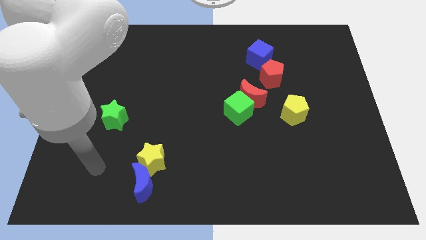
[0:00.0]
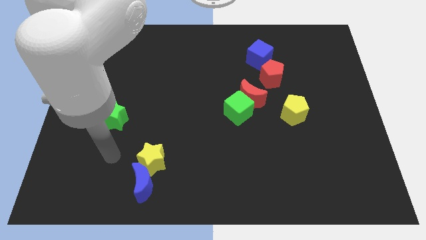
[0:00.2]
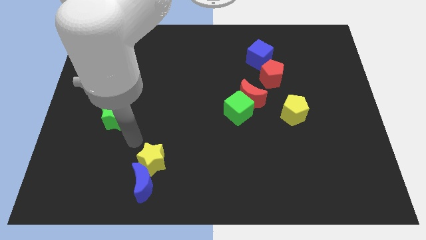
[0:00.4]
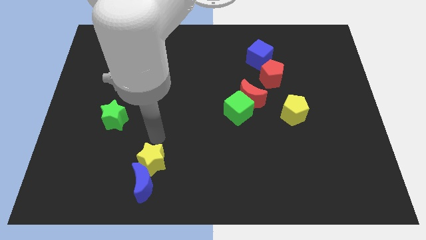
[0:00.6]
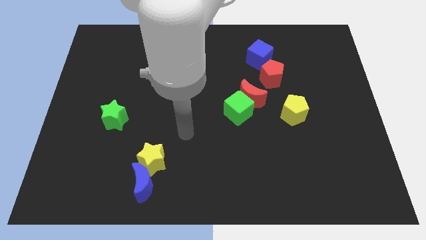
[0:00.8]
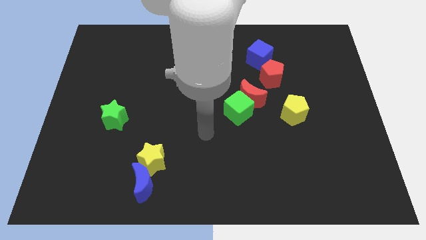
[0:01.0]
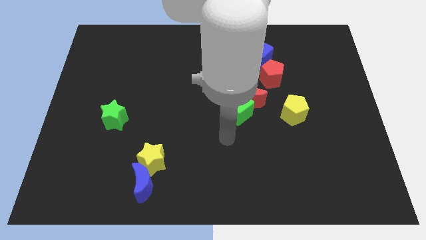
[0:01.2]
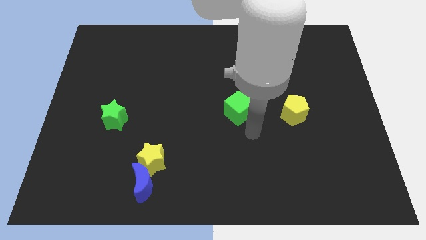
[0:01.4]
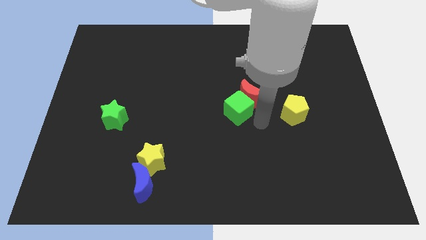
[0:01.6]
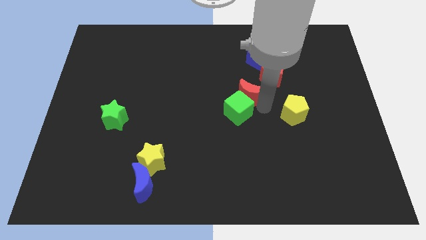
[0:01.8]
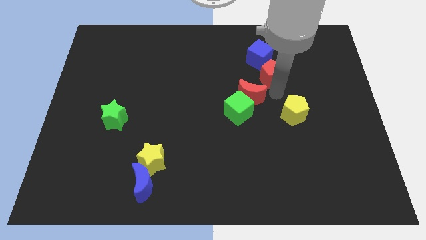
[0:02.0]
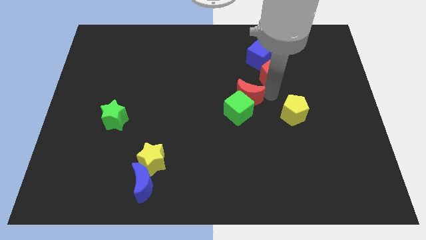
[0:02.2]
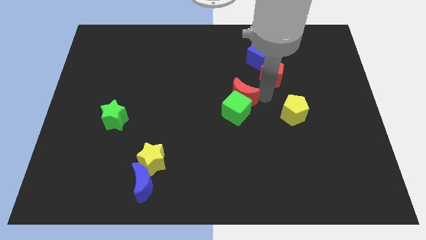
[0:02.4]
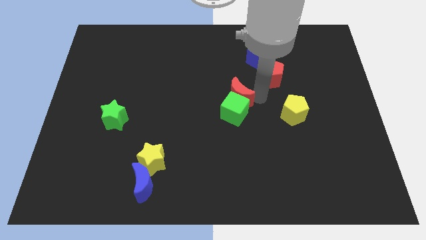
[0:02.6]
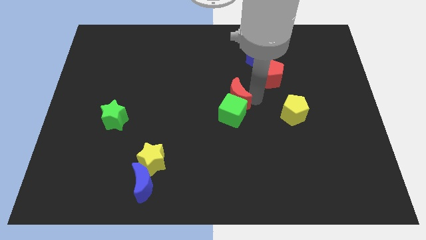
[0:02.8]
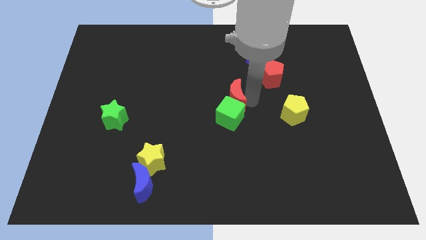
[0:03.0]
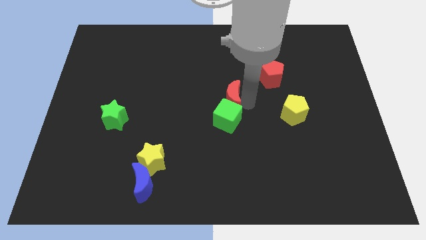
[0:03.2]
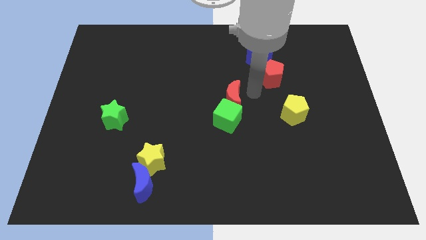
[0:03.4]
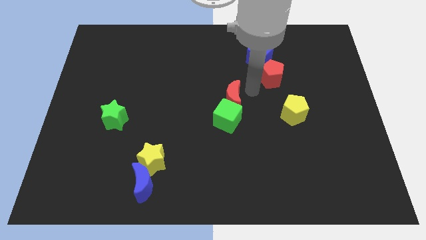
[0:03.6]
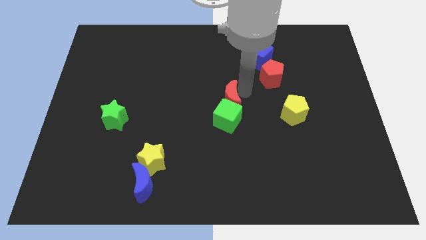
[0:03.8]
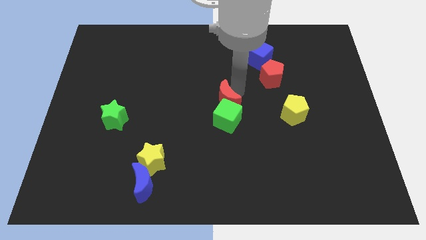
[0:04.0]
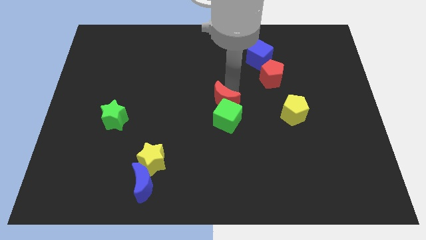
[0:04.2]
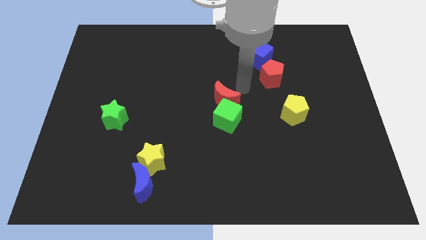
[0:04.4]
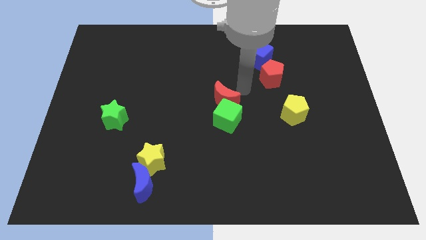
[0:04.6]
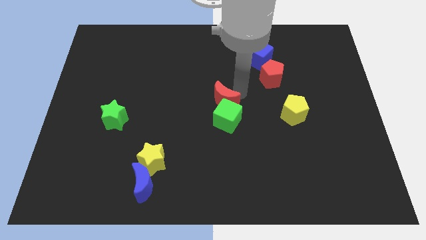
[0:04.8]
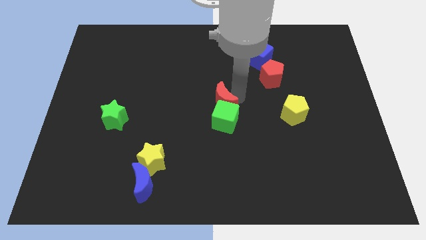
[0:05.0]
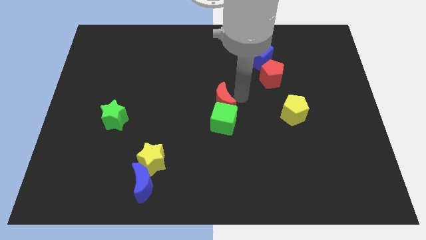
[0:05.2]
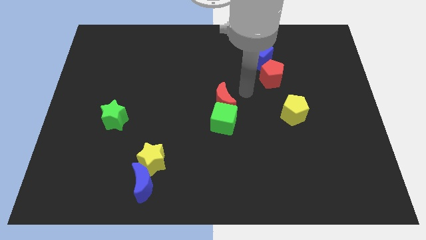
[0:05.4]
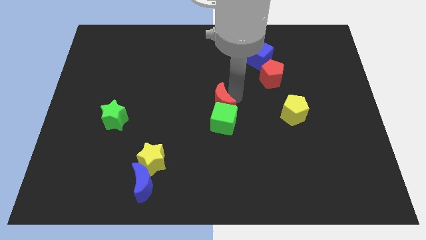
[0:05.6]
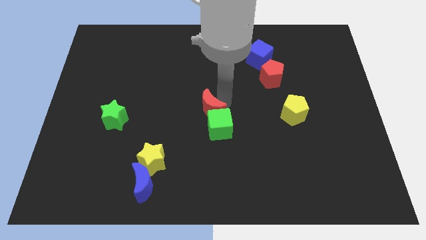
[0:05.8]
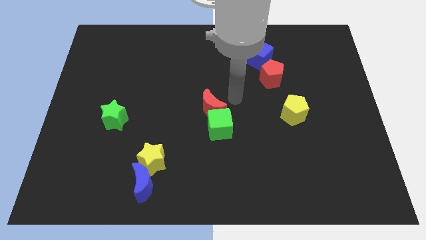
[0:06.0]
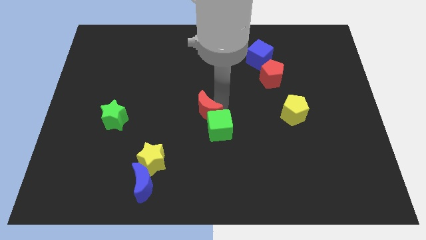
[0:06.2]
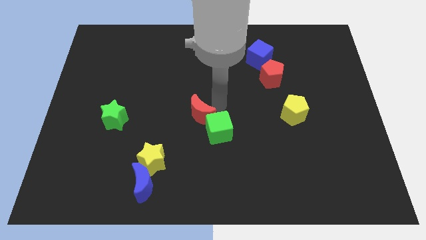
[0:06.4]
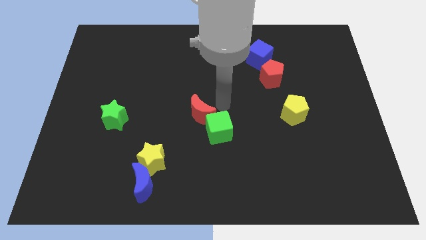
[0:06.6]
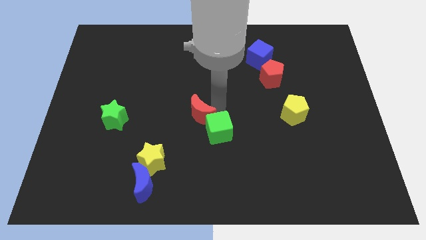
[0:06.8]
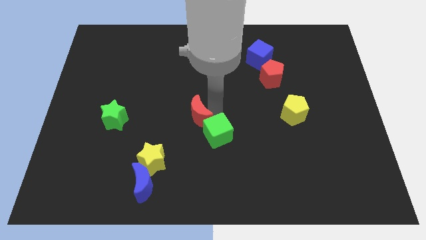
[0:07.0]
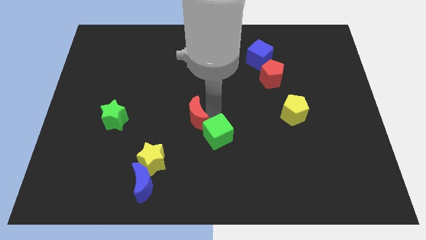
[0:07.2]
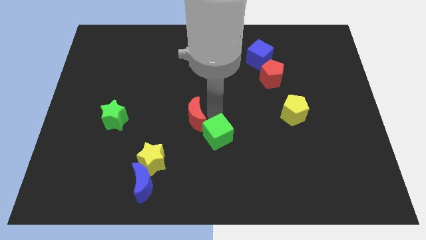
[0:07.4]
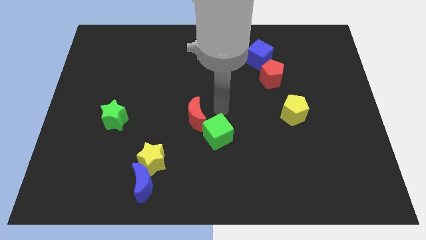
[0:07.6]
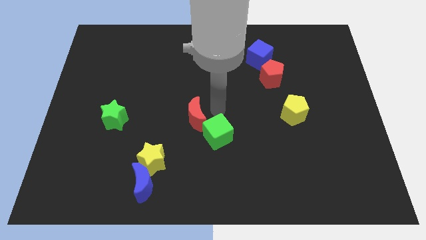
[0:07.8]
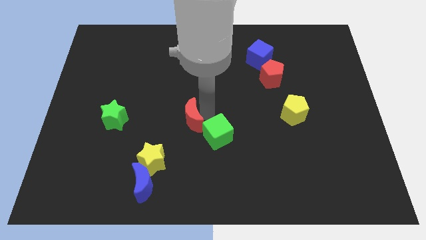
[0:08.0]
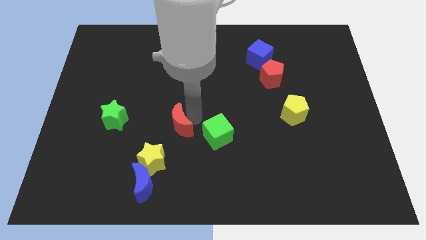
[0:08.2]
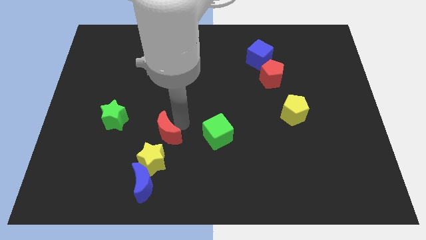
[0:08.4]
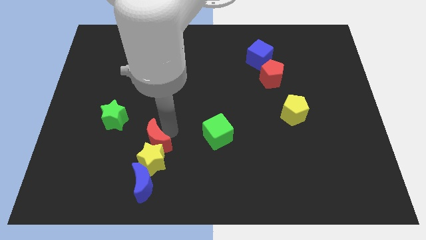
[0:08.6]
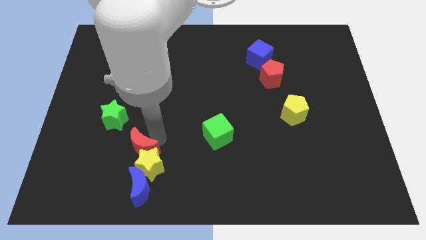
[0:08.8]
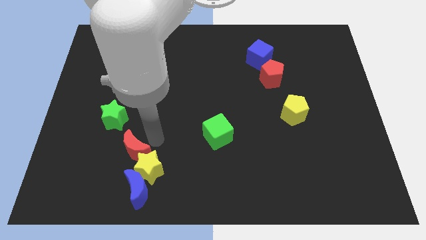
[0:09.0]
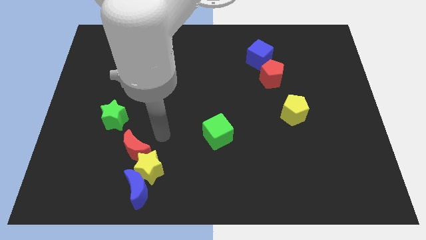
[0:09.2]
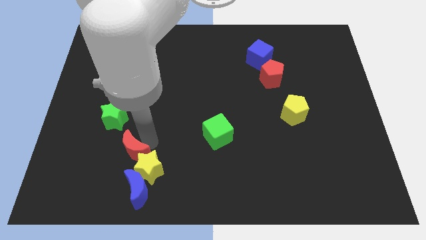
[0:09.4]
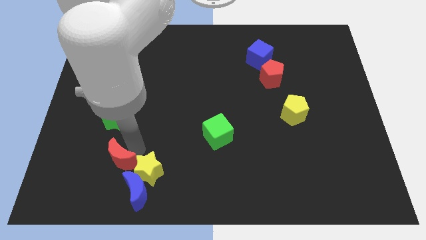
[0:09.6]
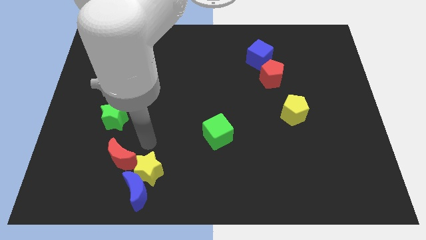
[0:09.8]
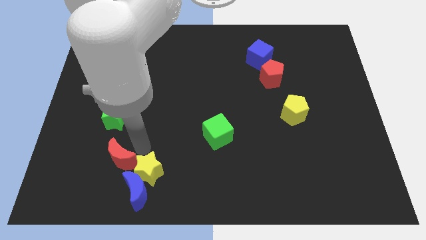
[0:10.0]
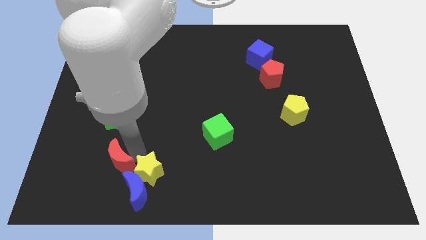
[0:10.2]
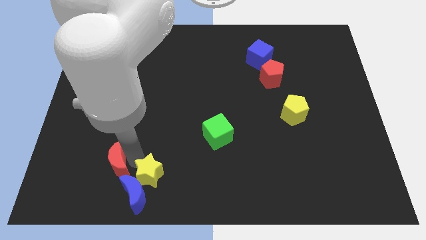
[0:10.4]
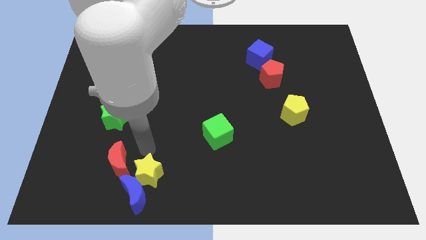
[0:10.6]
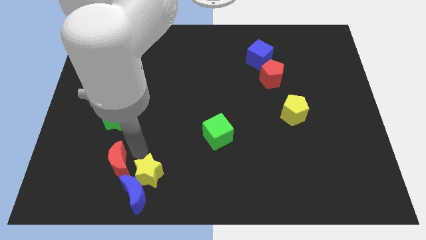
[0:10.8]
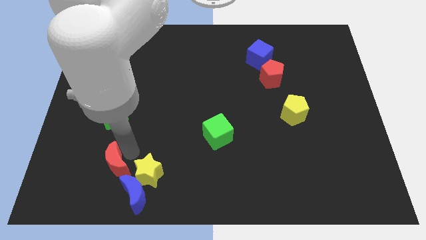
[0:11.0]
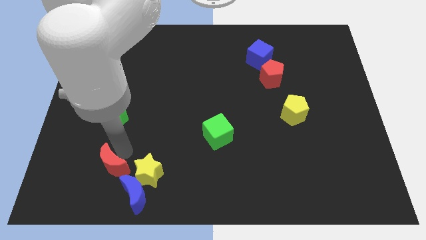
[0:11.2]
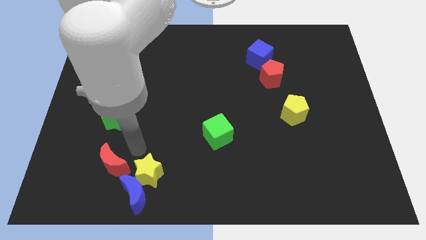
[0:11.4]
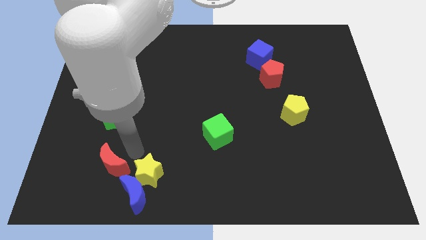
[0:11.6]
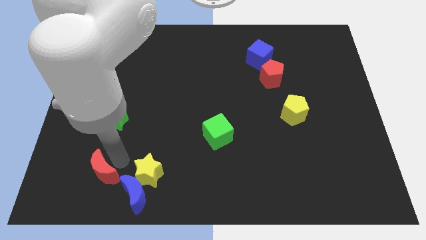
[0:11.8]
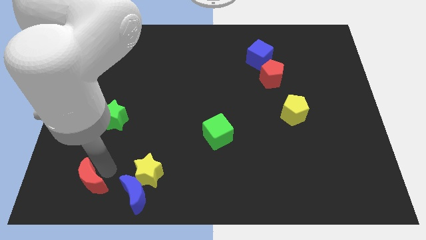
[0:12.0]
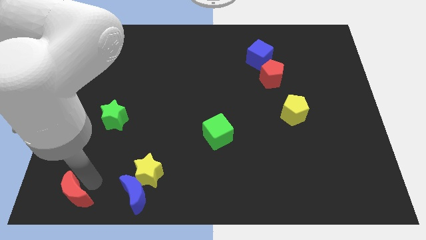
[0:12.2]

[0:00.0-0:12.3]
put the red moon to the bottom left
